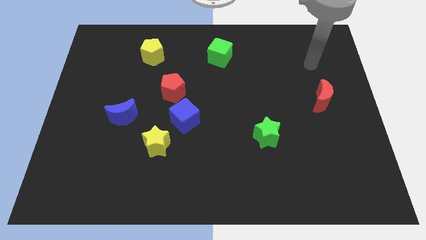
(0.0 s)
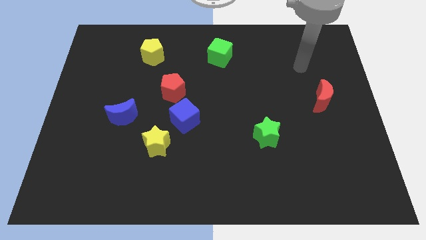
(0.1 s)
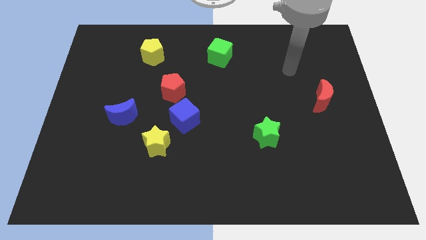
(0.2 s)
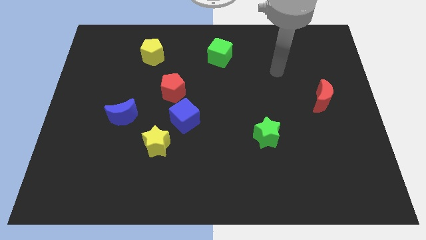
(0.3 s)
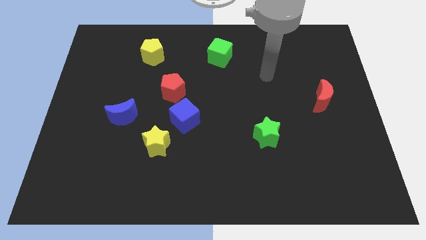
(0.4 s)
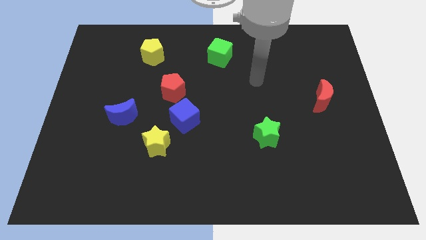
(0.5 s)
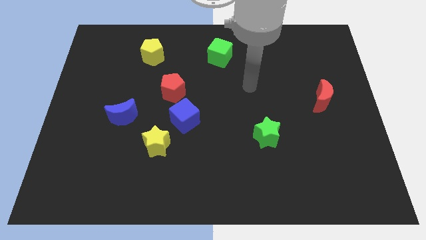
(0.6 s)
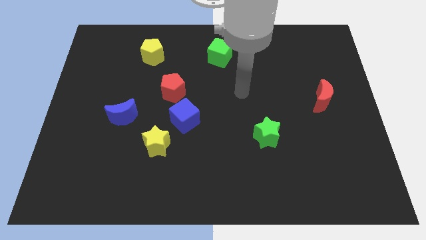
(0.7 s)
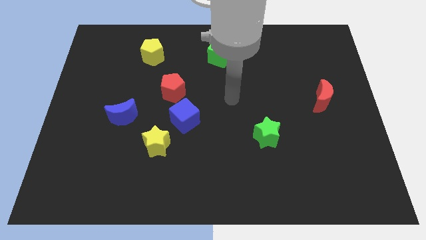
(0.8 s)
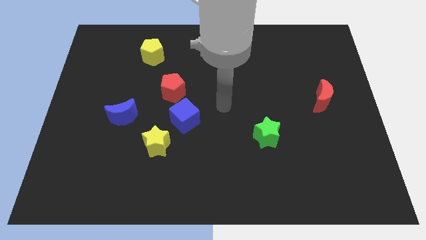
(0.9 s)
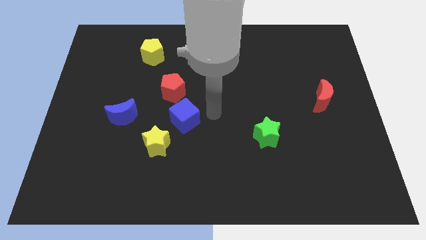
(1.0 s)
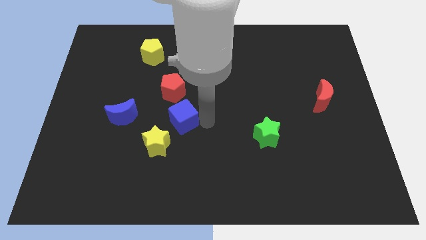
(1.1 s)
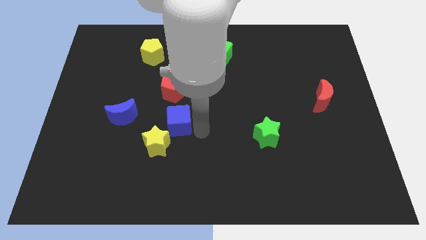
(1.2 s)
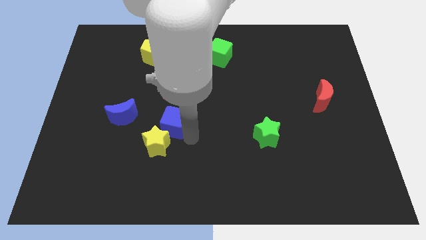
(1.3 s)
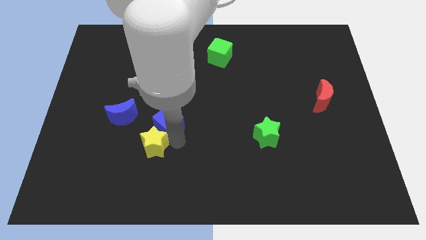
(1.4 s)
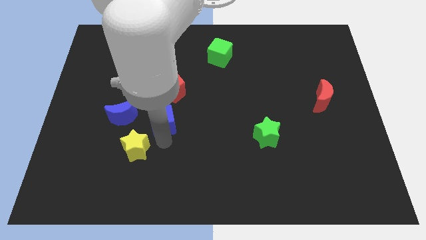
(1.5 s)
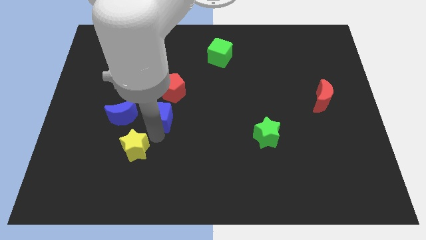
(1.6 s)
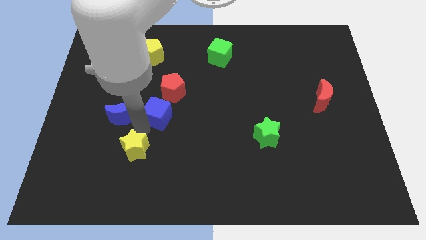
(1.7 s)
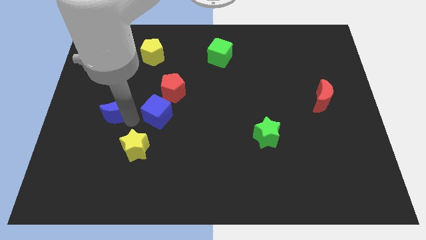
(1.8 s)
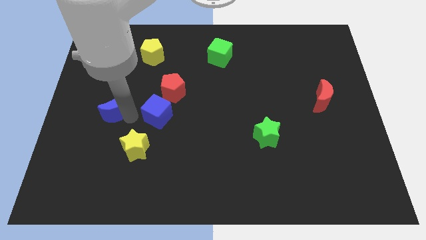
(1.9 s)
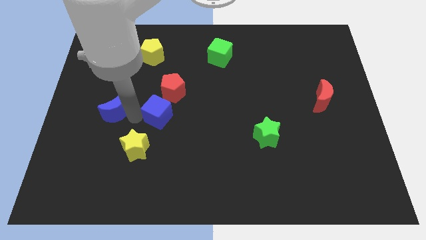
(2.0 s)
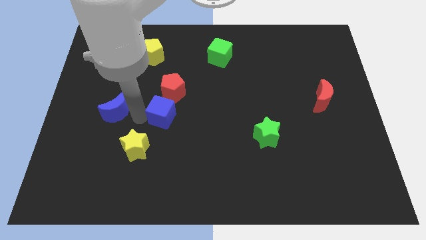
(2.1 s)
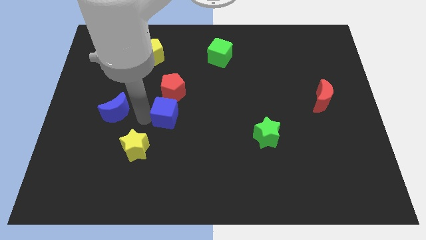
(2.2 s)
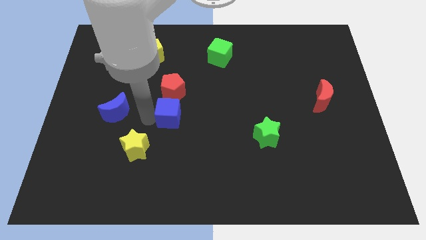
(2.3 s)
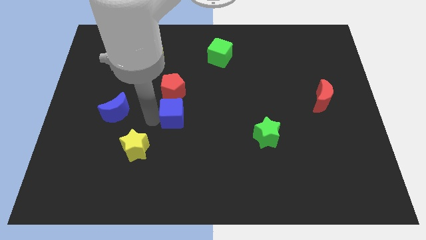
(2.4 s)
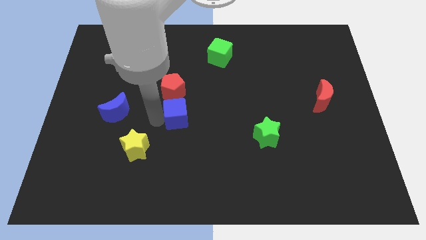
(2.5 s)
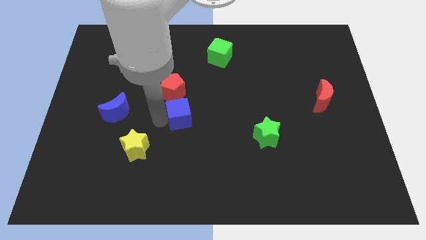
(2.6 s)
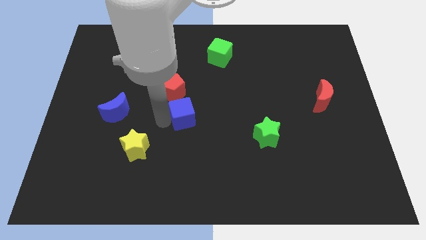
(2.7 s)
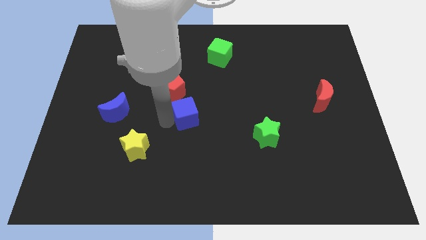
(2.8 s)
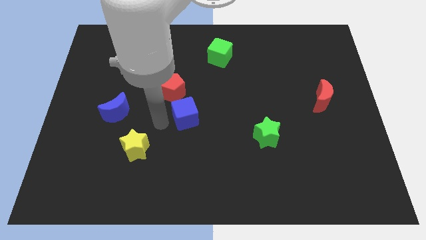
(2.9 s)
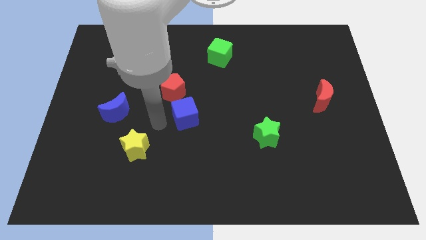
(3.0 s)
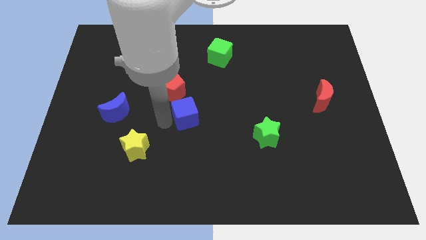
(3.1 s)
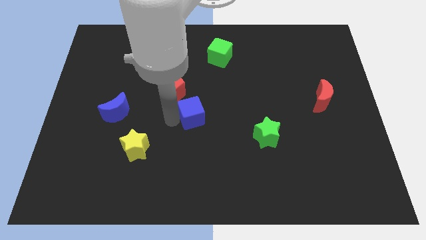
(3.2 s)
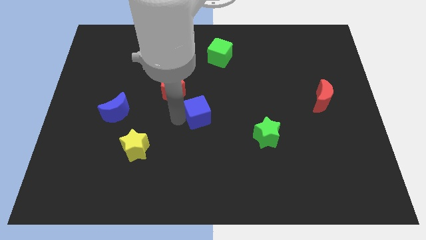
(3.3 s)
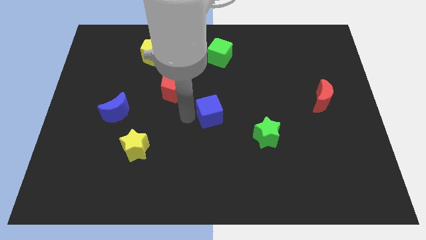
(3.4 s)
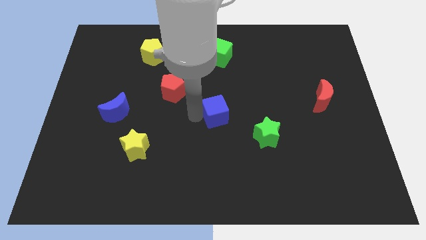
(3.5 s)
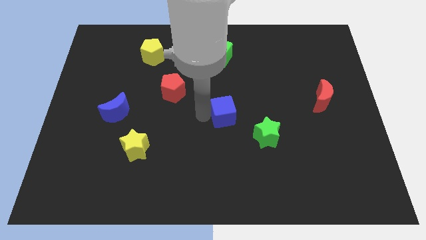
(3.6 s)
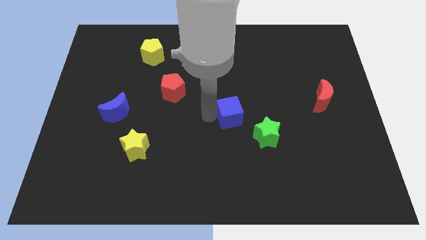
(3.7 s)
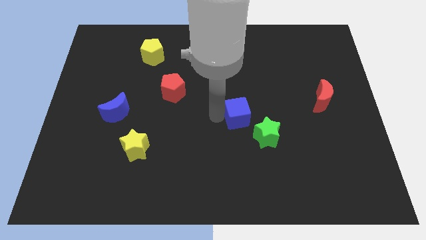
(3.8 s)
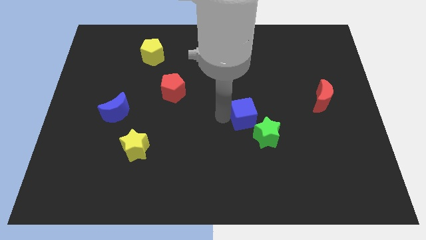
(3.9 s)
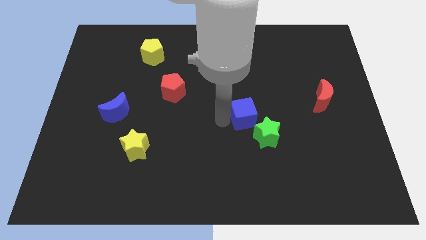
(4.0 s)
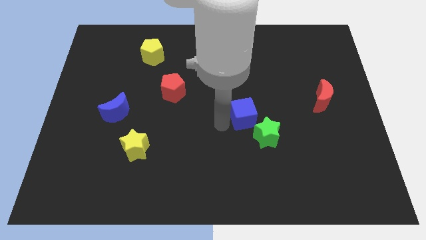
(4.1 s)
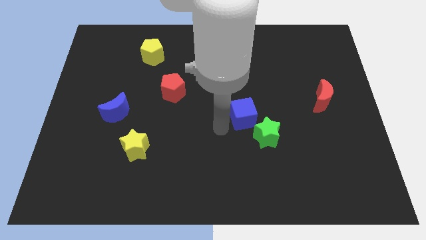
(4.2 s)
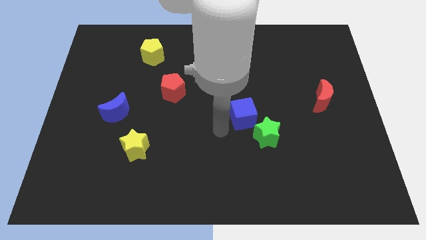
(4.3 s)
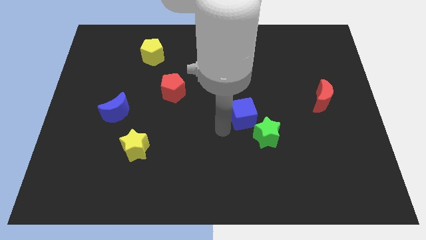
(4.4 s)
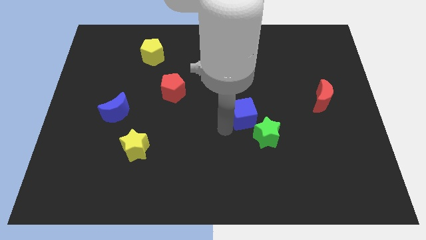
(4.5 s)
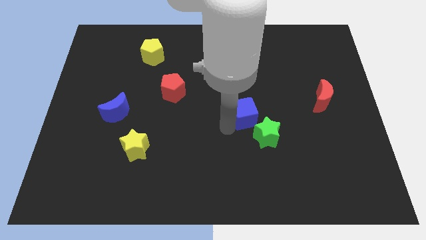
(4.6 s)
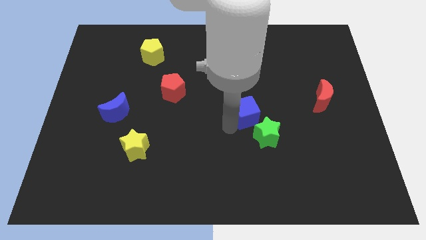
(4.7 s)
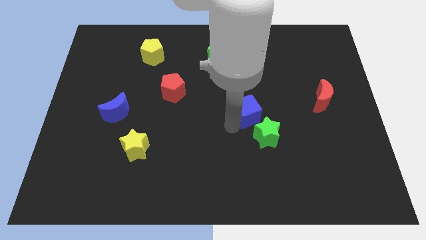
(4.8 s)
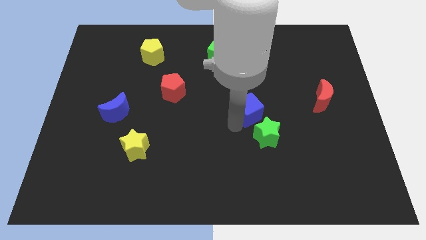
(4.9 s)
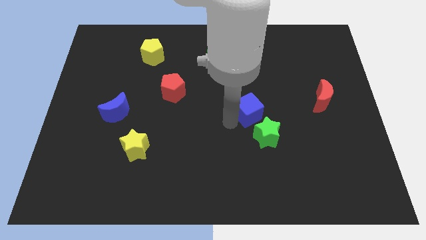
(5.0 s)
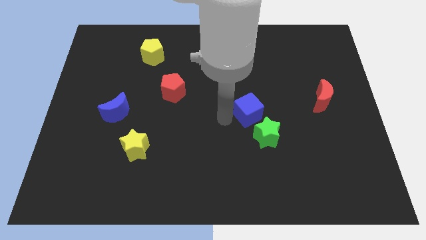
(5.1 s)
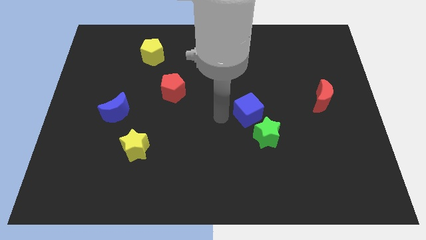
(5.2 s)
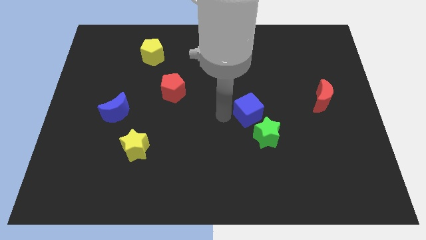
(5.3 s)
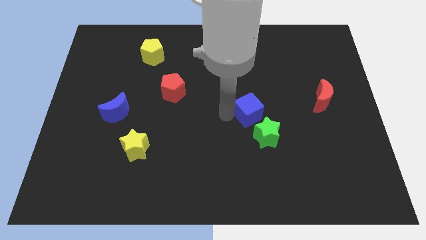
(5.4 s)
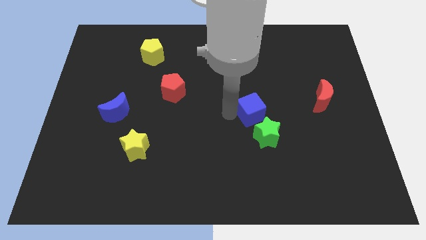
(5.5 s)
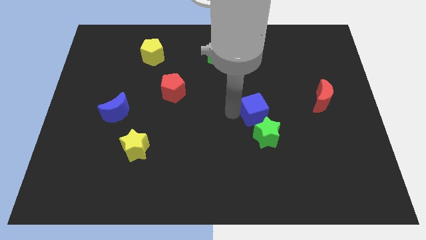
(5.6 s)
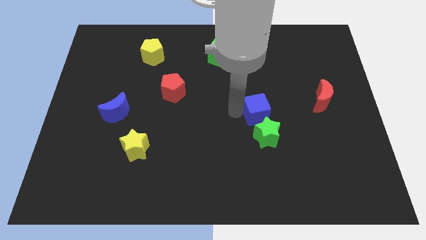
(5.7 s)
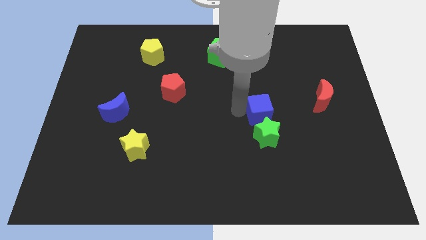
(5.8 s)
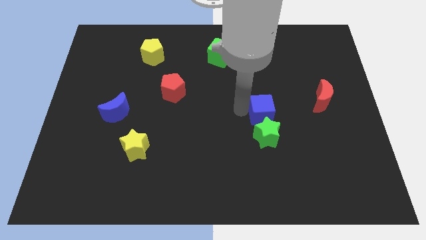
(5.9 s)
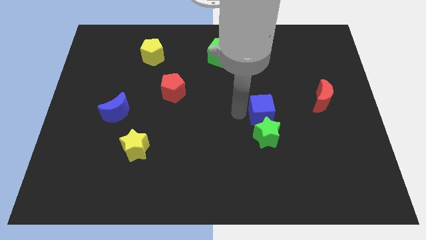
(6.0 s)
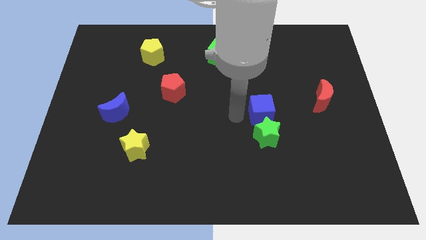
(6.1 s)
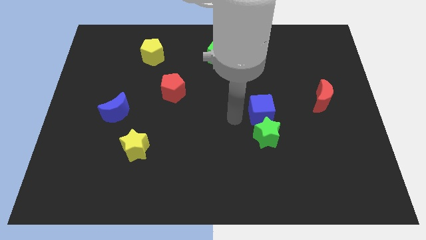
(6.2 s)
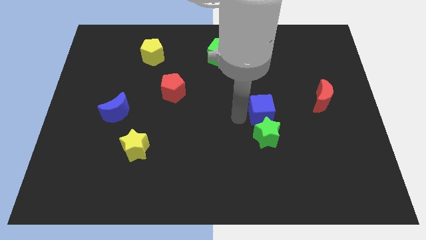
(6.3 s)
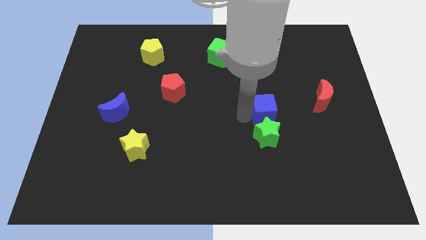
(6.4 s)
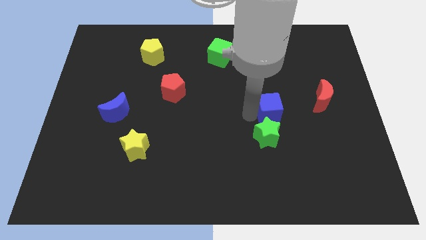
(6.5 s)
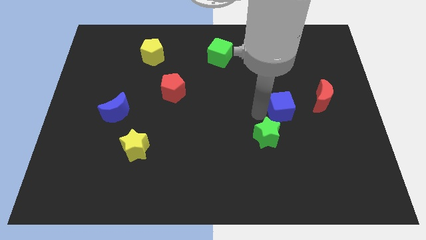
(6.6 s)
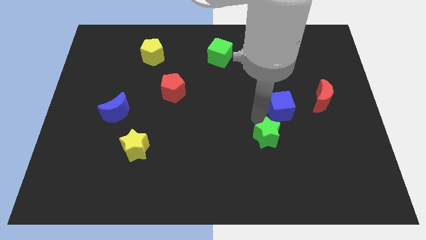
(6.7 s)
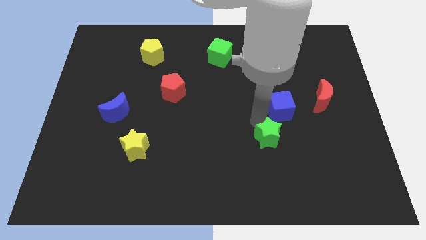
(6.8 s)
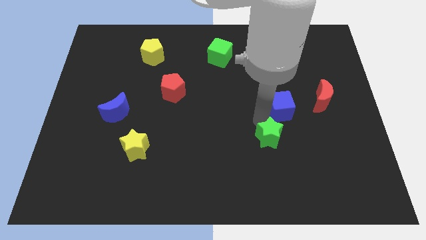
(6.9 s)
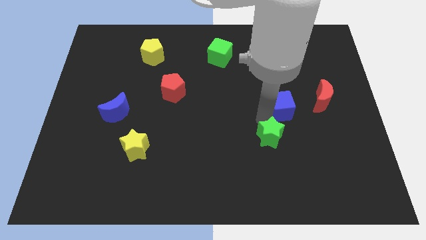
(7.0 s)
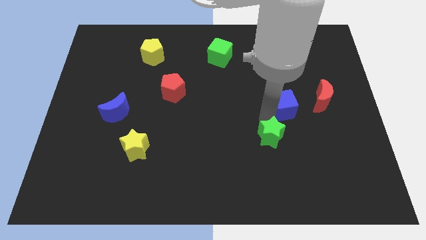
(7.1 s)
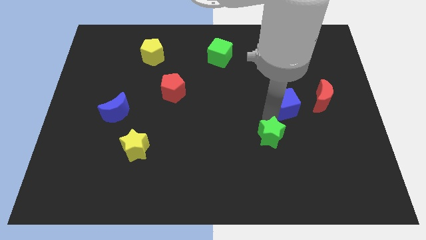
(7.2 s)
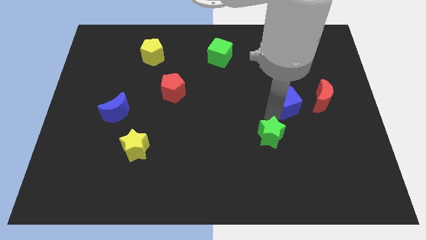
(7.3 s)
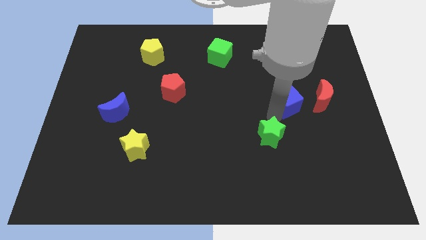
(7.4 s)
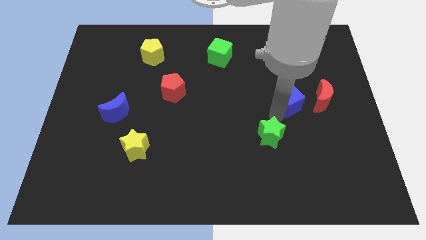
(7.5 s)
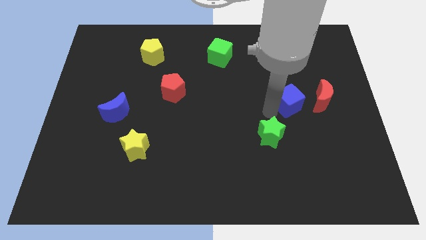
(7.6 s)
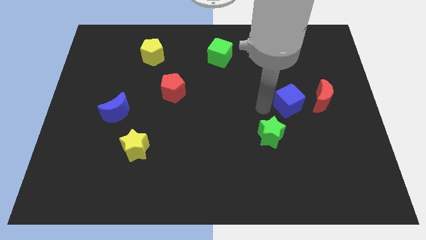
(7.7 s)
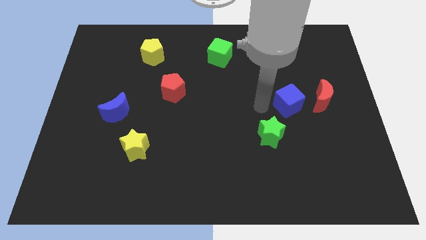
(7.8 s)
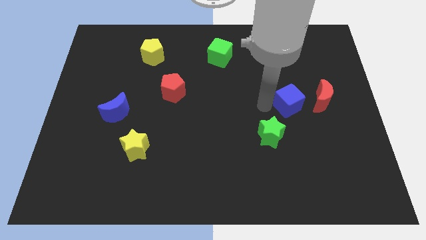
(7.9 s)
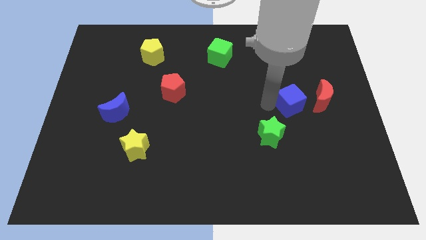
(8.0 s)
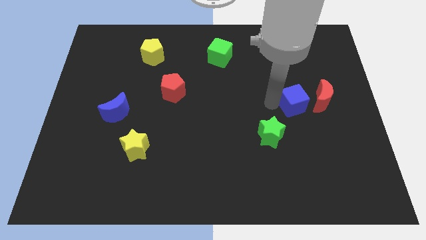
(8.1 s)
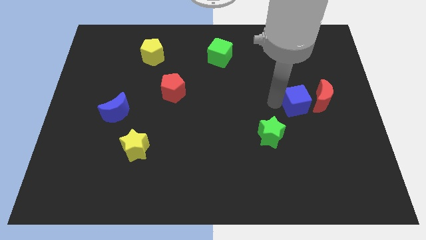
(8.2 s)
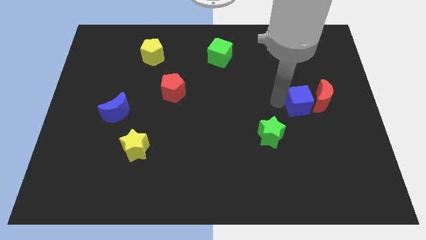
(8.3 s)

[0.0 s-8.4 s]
put the blue cube towards the red moon
